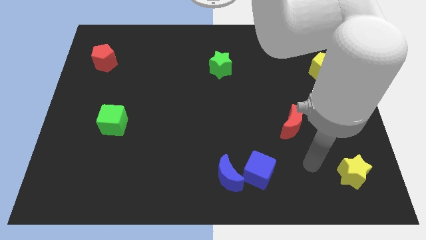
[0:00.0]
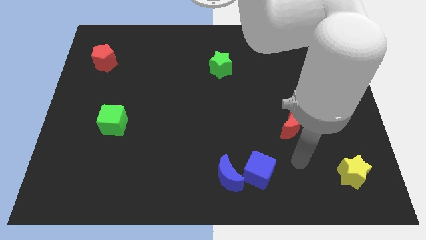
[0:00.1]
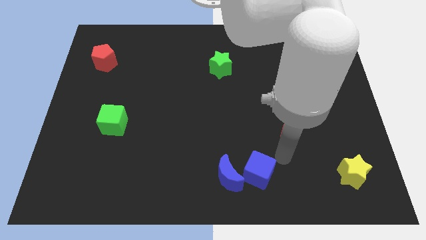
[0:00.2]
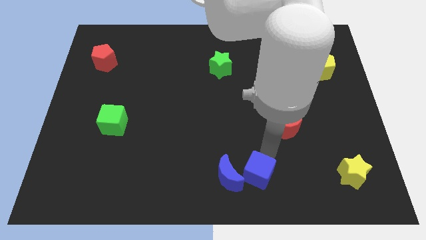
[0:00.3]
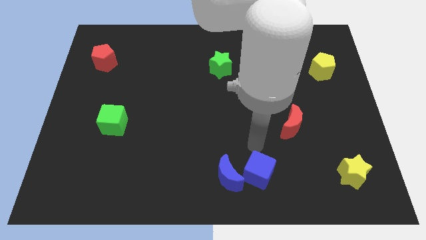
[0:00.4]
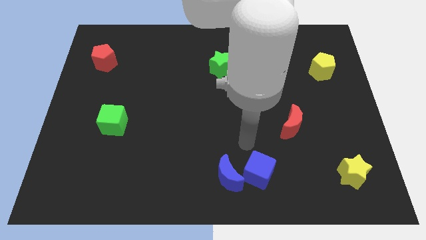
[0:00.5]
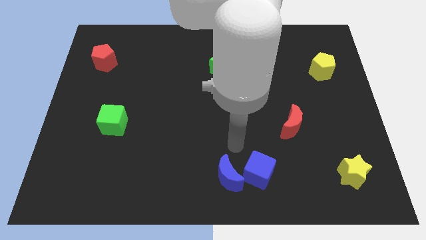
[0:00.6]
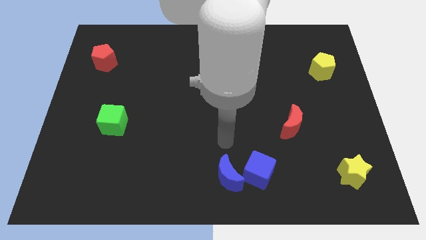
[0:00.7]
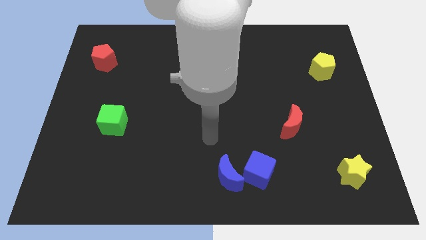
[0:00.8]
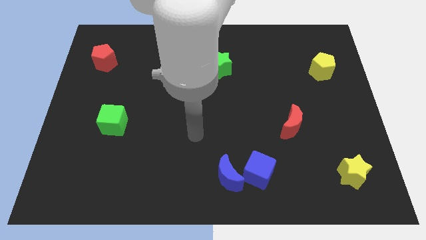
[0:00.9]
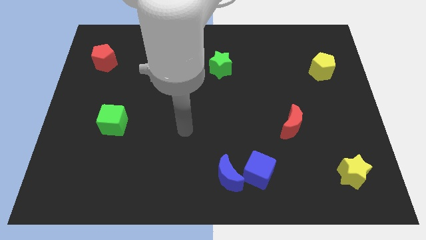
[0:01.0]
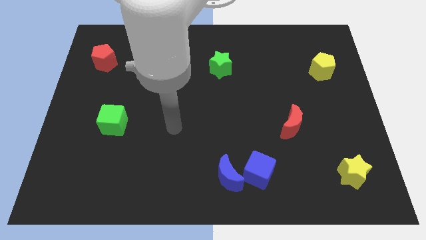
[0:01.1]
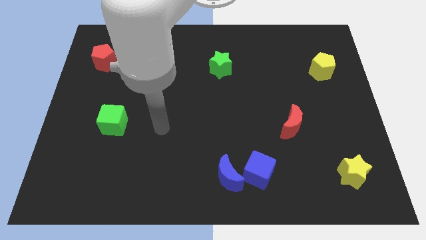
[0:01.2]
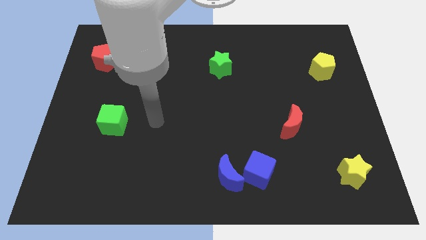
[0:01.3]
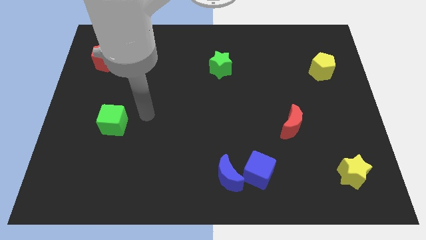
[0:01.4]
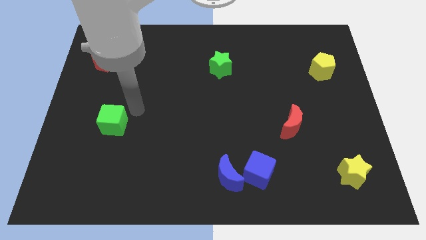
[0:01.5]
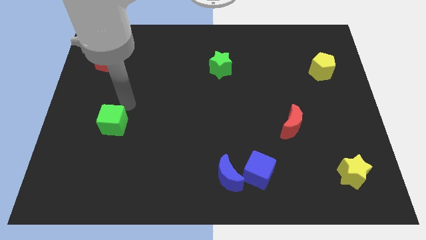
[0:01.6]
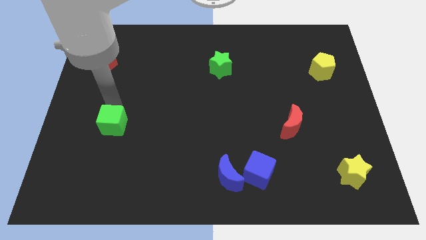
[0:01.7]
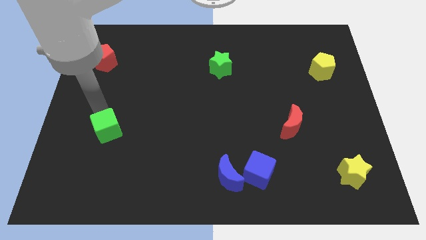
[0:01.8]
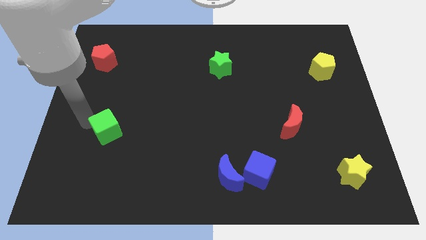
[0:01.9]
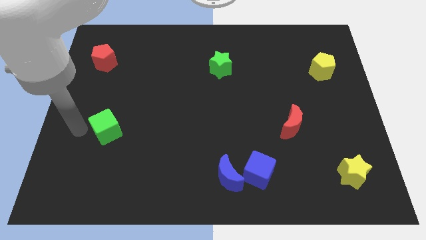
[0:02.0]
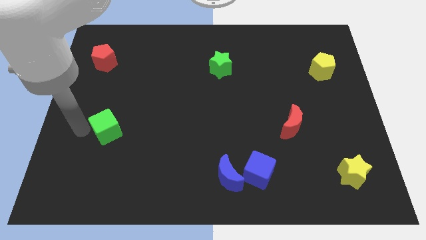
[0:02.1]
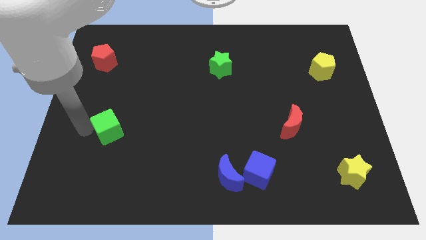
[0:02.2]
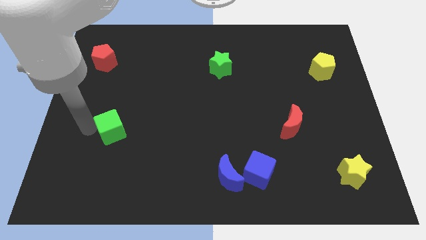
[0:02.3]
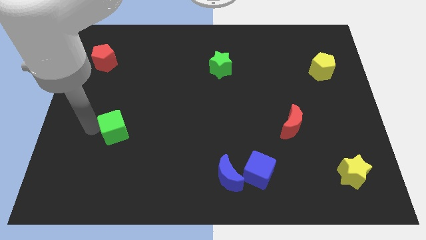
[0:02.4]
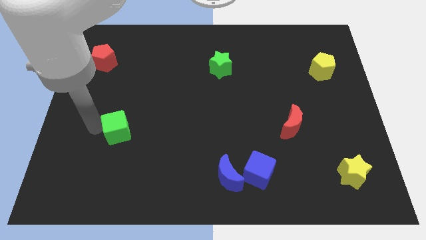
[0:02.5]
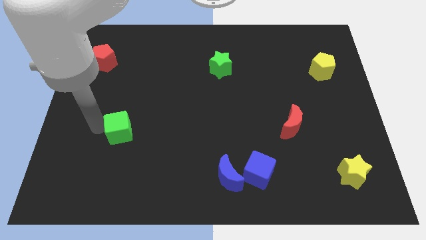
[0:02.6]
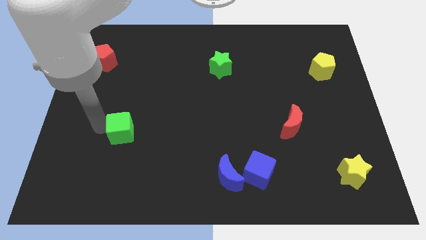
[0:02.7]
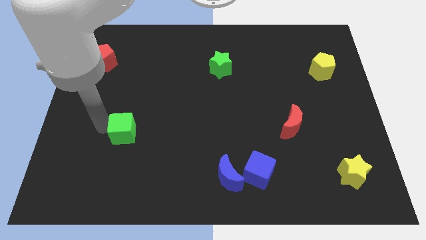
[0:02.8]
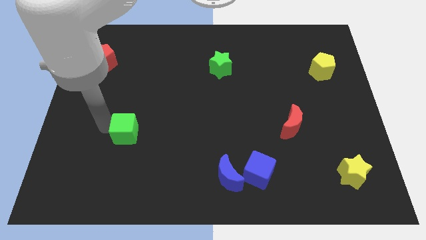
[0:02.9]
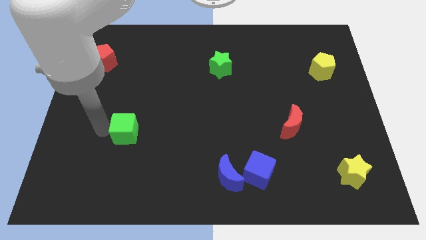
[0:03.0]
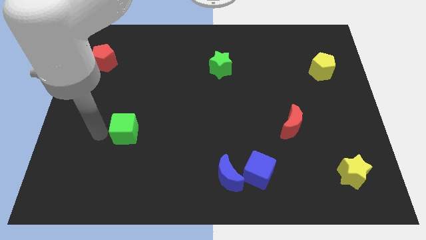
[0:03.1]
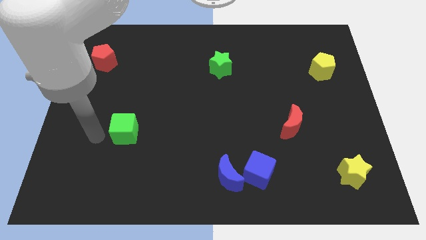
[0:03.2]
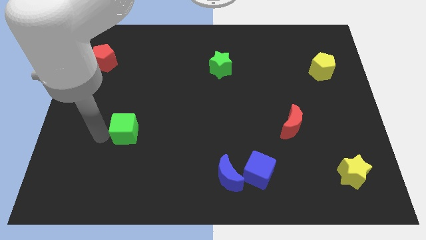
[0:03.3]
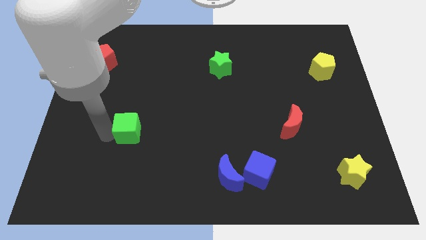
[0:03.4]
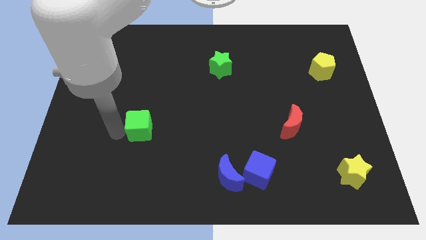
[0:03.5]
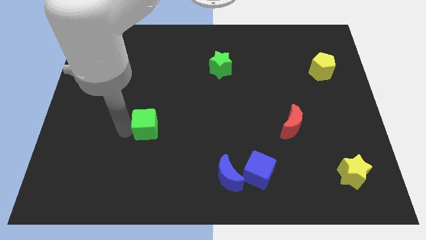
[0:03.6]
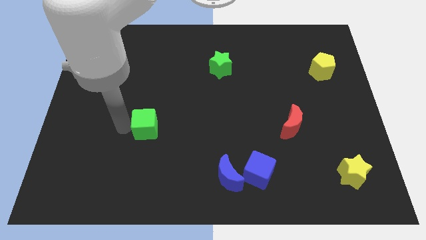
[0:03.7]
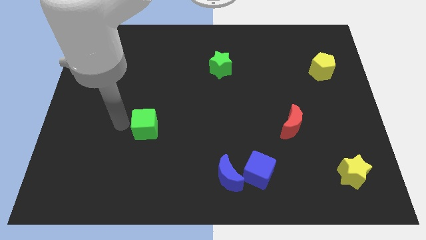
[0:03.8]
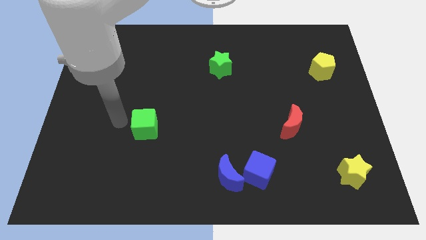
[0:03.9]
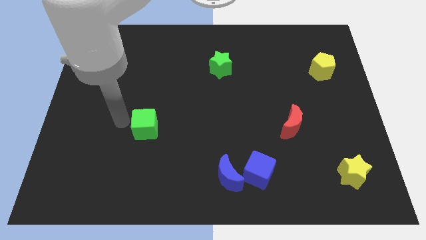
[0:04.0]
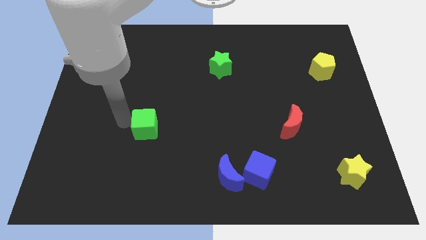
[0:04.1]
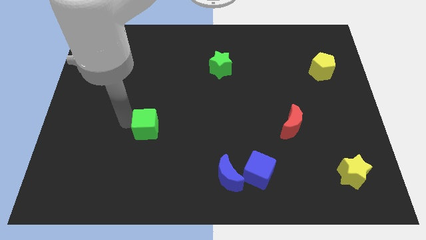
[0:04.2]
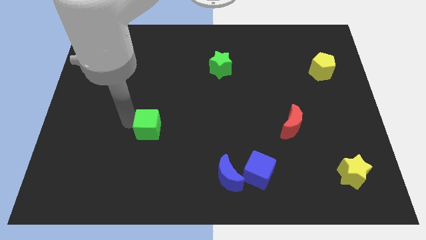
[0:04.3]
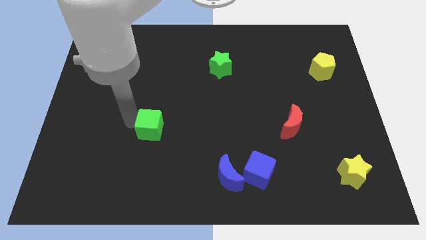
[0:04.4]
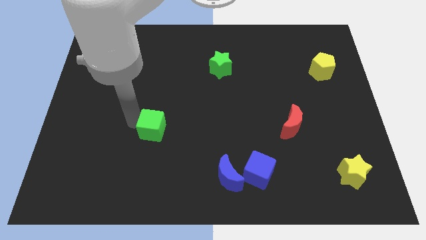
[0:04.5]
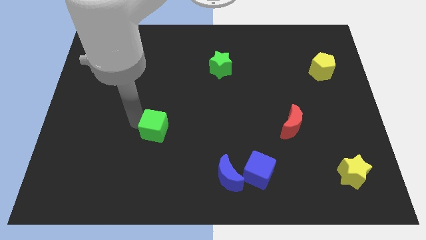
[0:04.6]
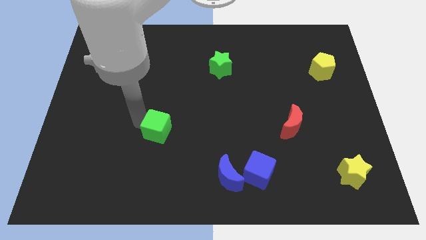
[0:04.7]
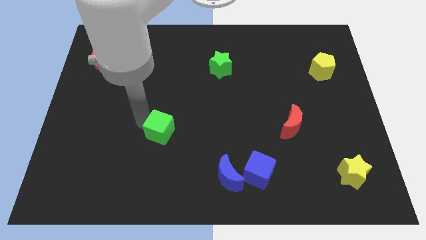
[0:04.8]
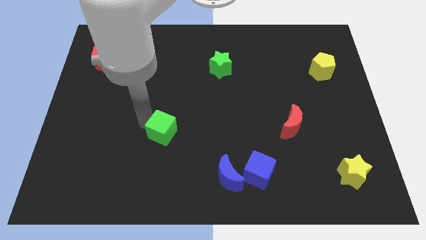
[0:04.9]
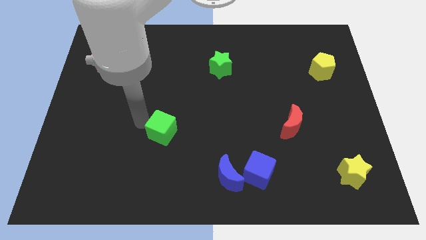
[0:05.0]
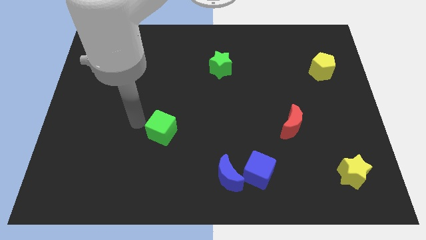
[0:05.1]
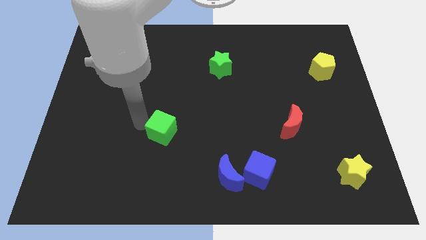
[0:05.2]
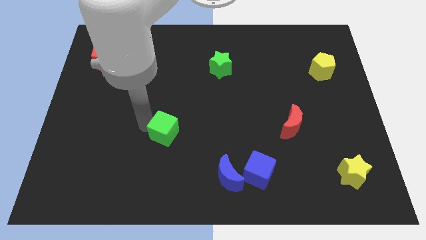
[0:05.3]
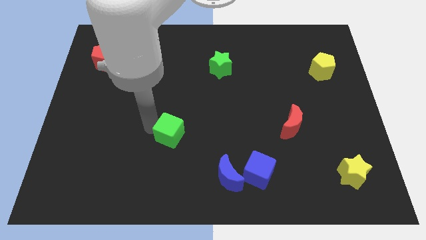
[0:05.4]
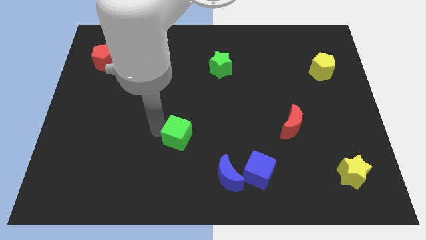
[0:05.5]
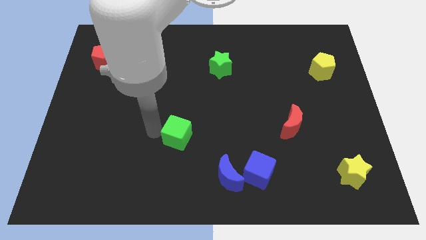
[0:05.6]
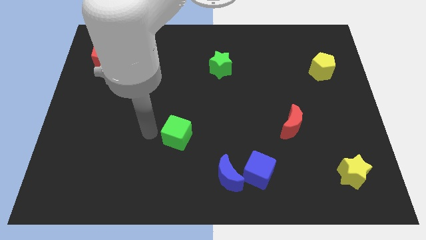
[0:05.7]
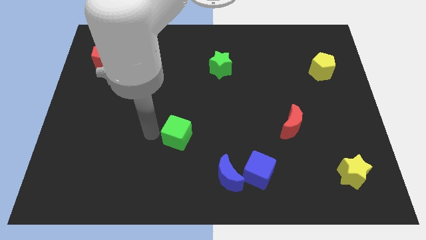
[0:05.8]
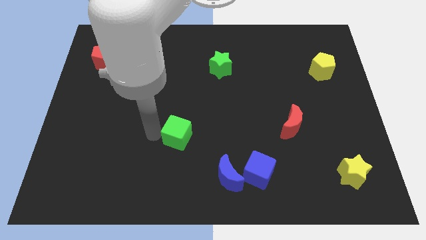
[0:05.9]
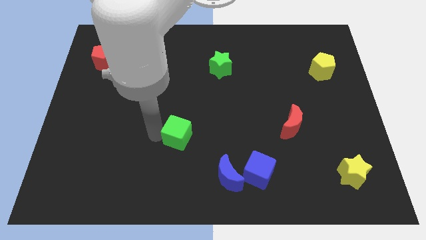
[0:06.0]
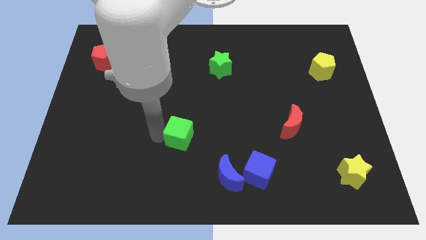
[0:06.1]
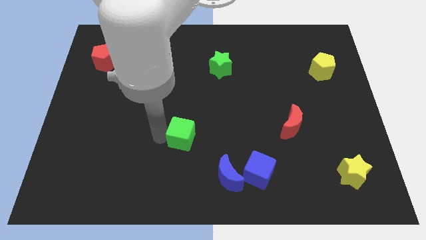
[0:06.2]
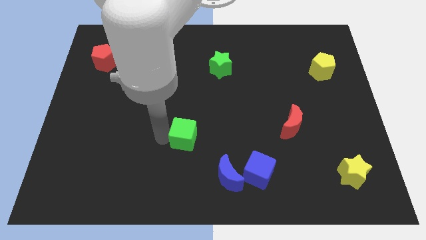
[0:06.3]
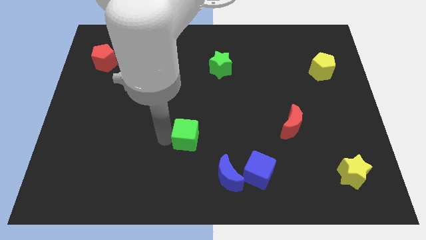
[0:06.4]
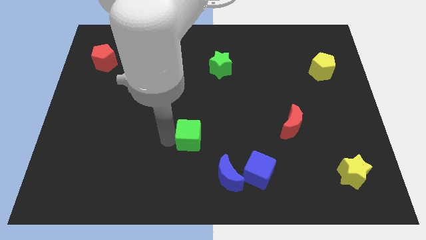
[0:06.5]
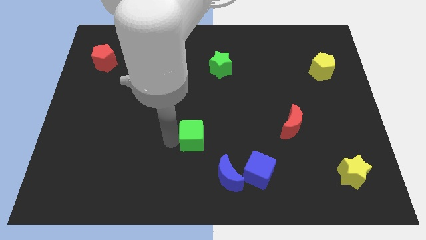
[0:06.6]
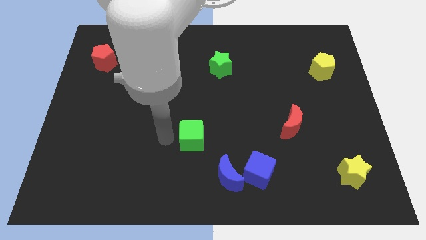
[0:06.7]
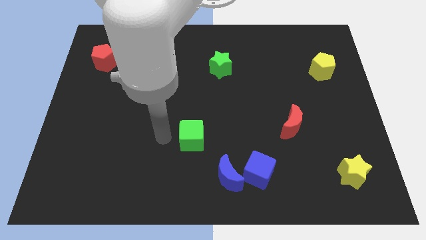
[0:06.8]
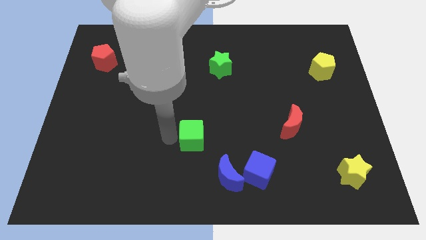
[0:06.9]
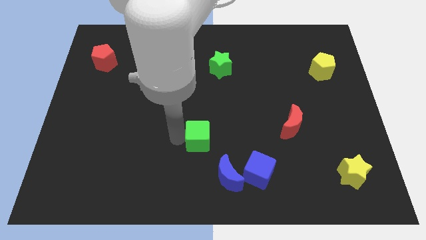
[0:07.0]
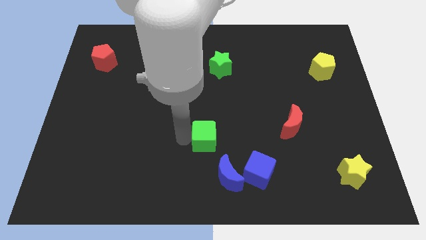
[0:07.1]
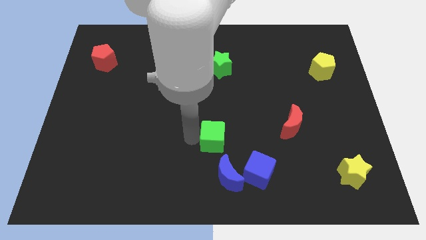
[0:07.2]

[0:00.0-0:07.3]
put the green cube to the top left of the blue cube

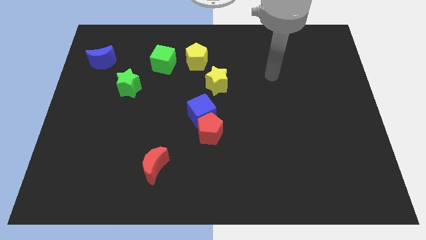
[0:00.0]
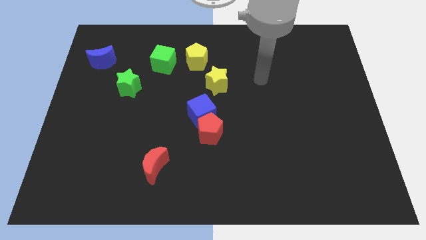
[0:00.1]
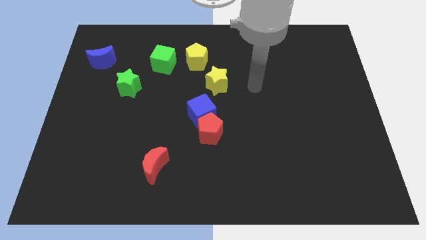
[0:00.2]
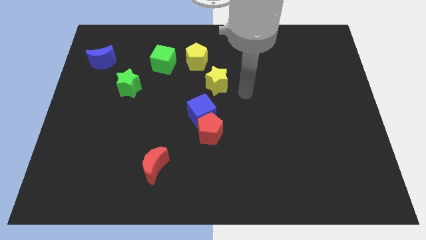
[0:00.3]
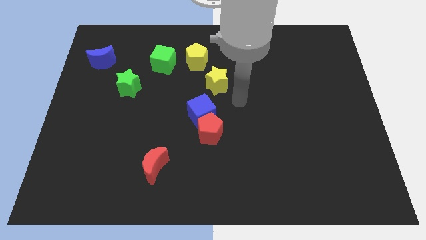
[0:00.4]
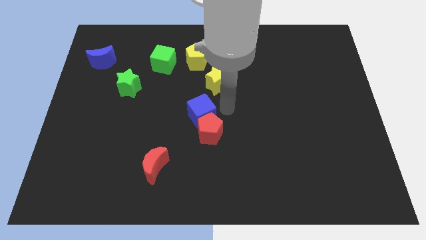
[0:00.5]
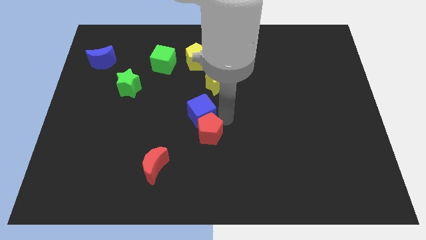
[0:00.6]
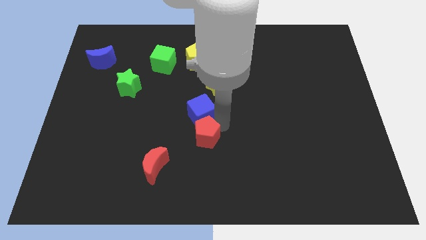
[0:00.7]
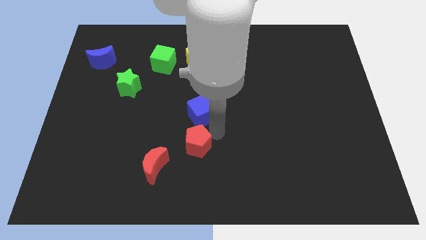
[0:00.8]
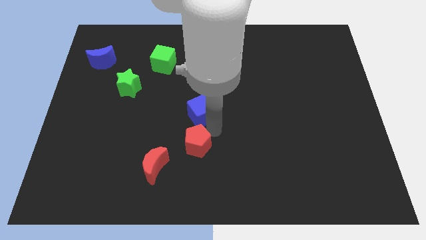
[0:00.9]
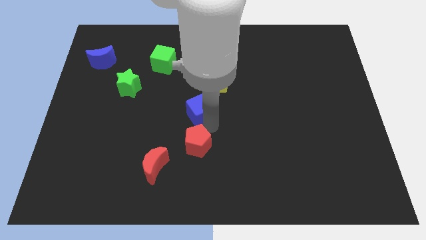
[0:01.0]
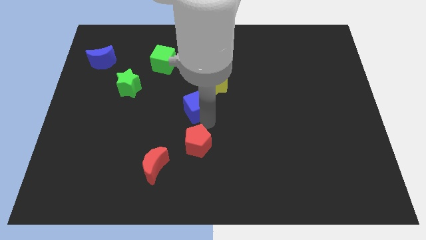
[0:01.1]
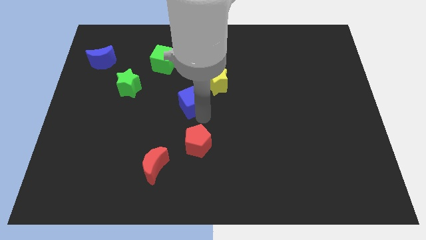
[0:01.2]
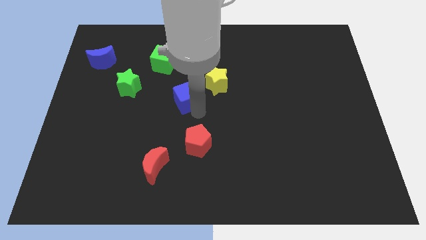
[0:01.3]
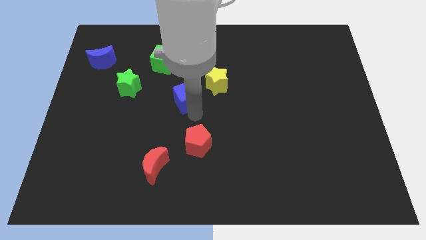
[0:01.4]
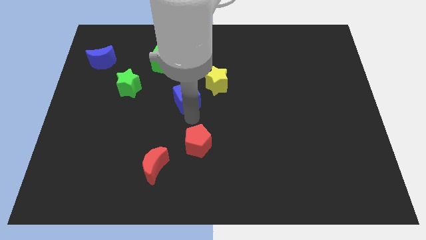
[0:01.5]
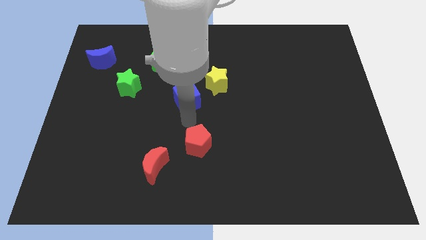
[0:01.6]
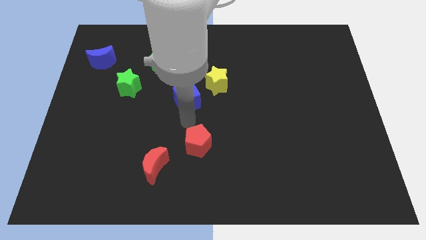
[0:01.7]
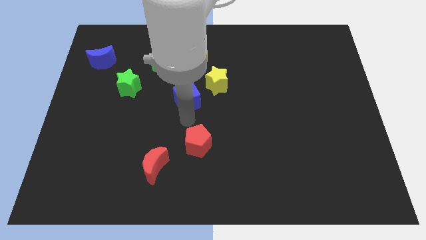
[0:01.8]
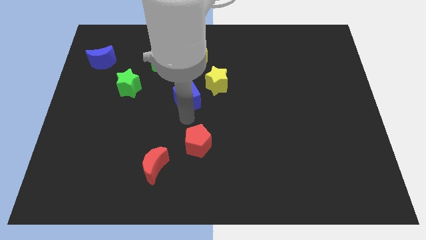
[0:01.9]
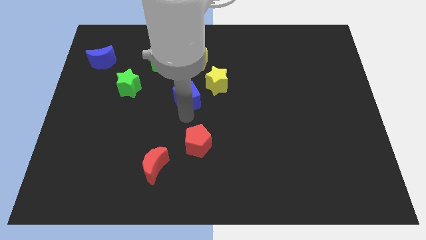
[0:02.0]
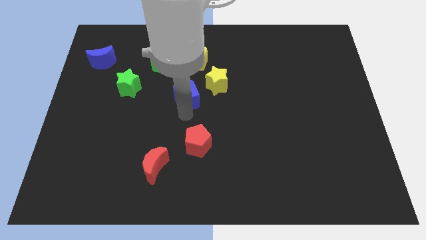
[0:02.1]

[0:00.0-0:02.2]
slide the blue cube just left of the yellow star
